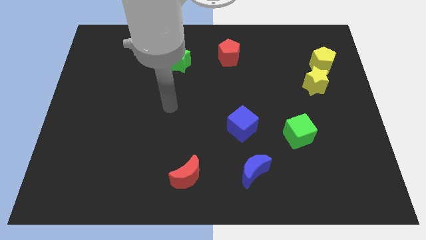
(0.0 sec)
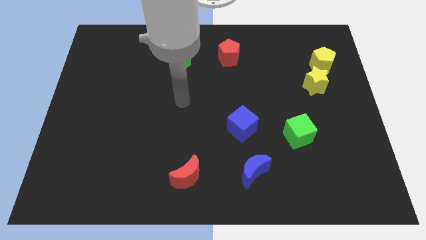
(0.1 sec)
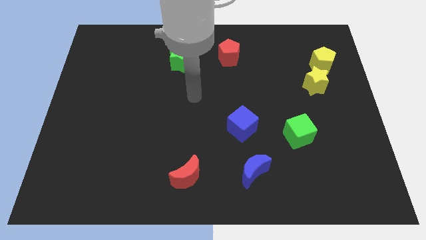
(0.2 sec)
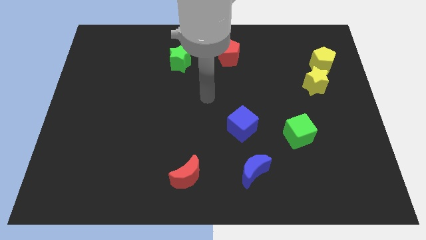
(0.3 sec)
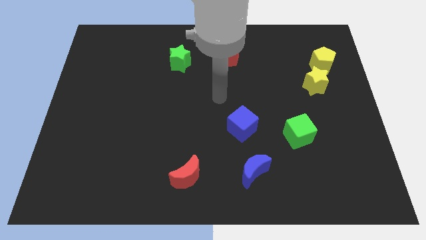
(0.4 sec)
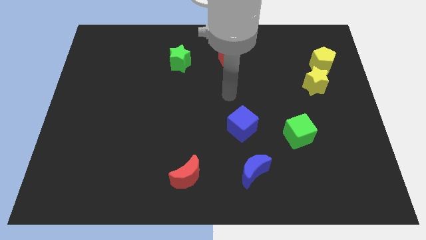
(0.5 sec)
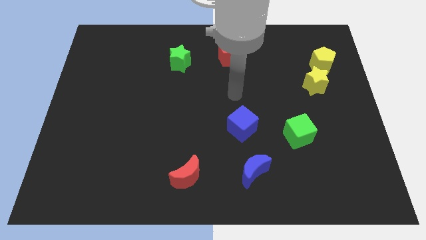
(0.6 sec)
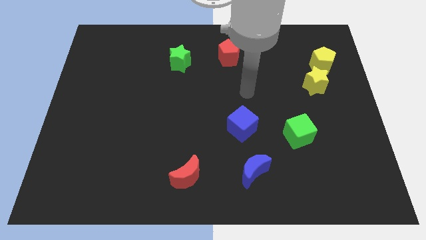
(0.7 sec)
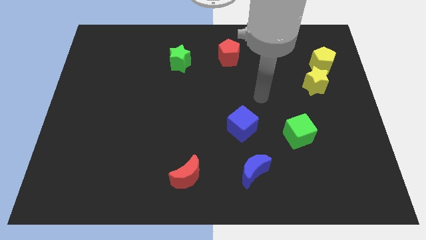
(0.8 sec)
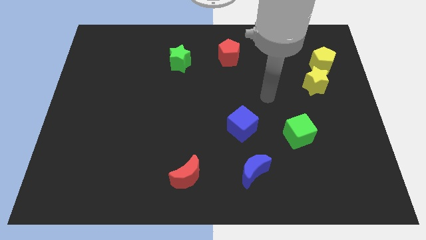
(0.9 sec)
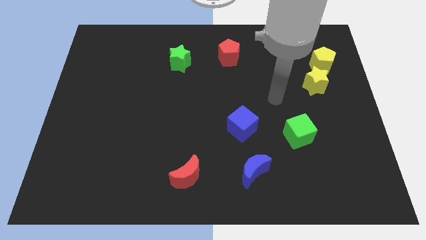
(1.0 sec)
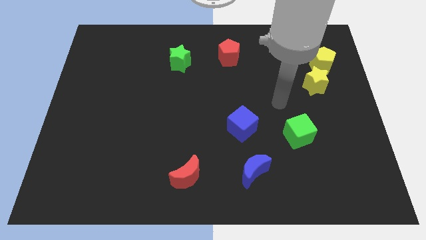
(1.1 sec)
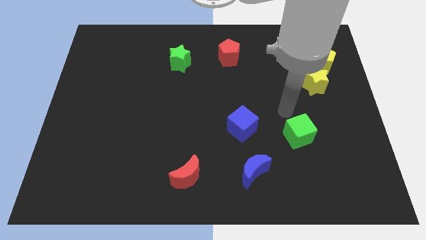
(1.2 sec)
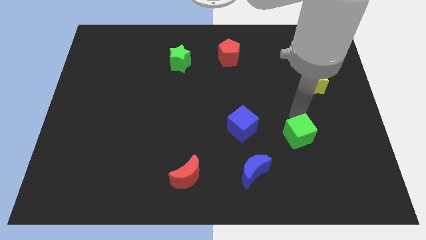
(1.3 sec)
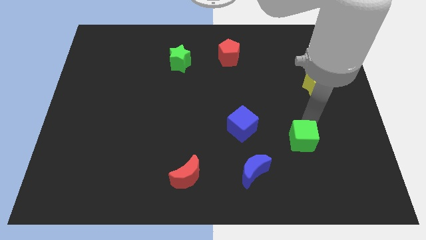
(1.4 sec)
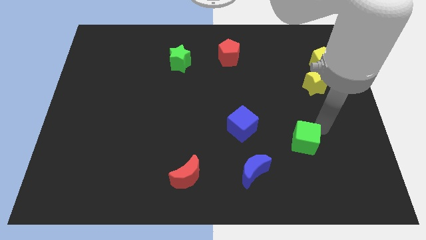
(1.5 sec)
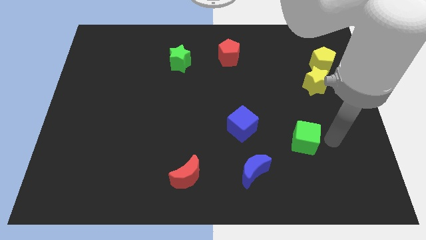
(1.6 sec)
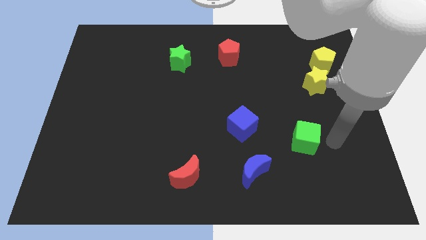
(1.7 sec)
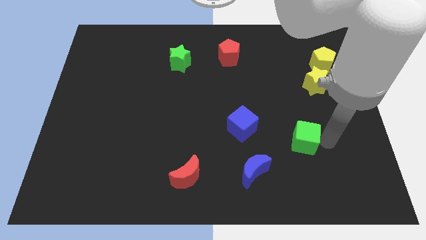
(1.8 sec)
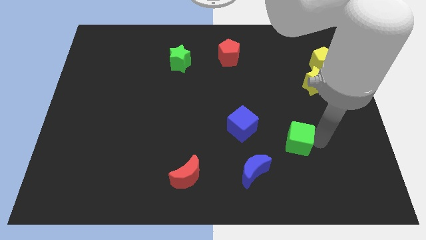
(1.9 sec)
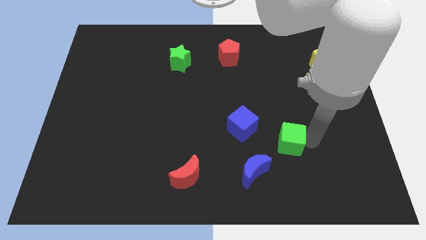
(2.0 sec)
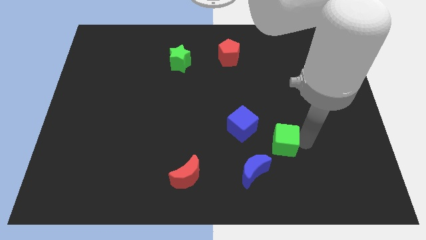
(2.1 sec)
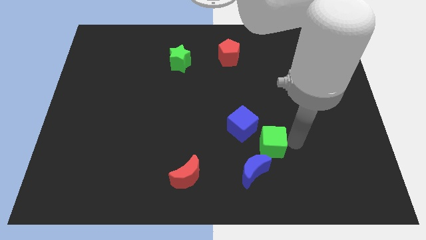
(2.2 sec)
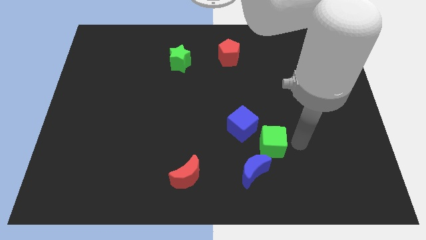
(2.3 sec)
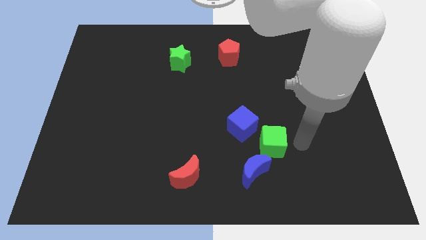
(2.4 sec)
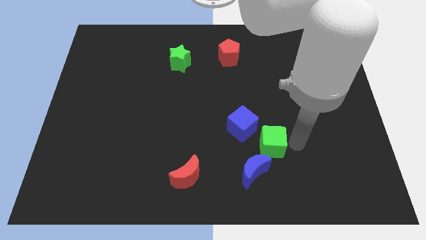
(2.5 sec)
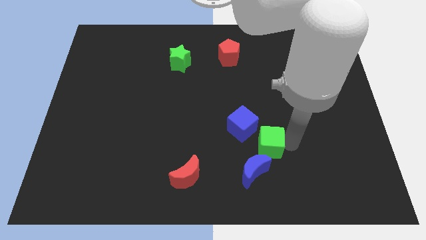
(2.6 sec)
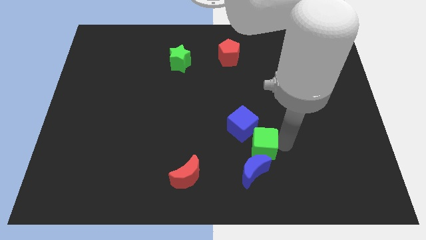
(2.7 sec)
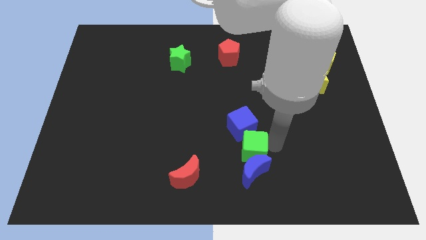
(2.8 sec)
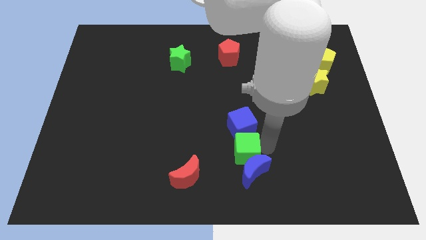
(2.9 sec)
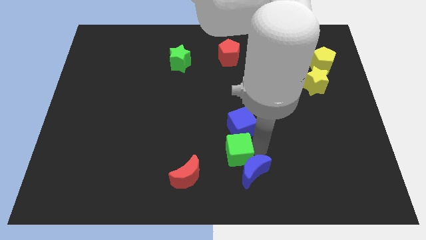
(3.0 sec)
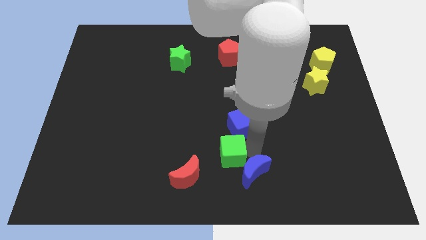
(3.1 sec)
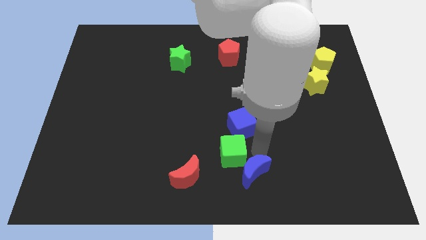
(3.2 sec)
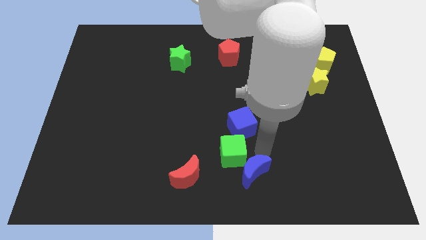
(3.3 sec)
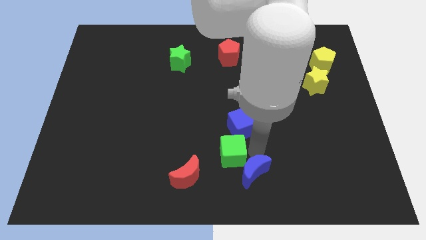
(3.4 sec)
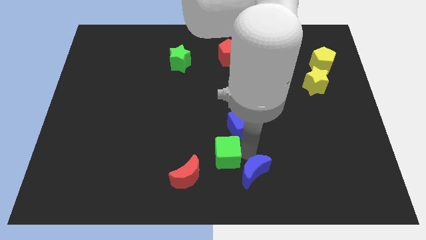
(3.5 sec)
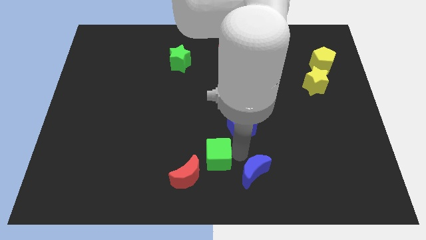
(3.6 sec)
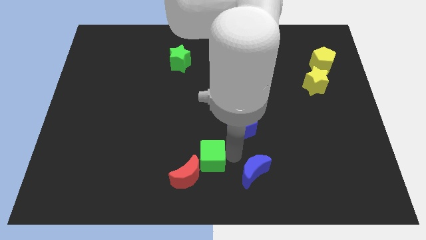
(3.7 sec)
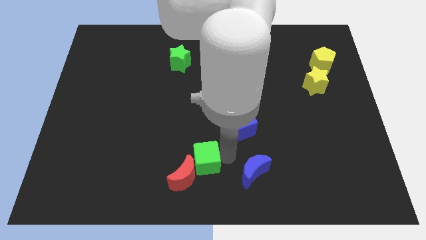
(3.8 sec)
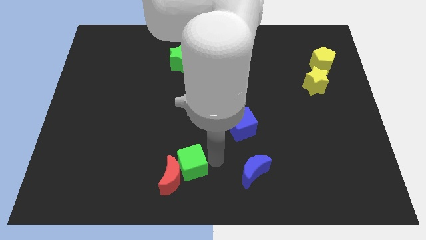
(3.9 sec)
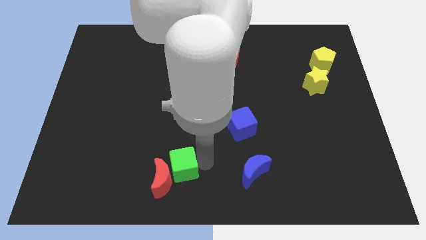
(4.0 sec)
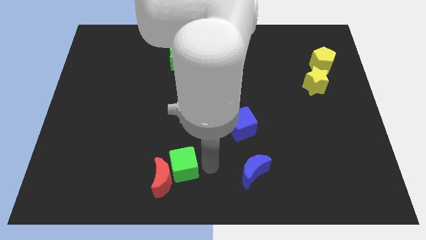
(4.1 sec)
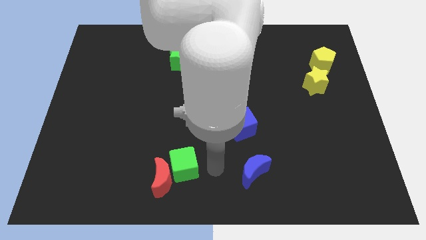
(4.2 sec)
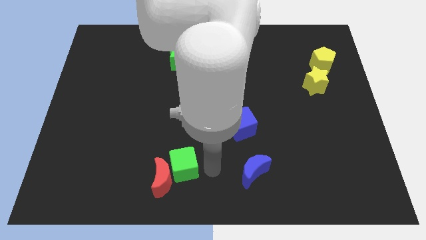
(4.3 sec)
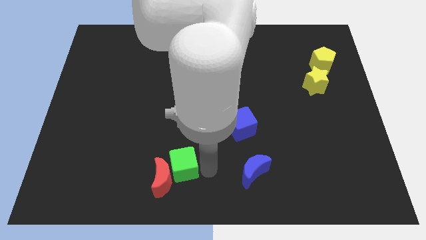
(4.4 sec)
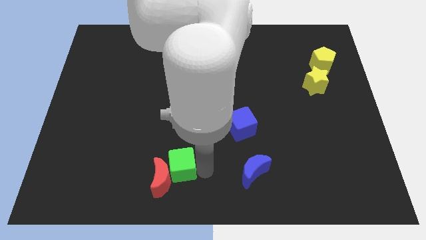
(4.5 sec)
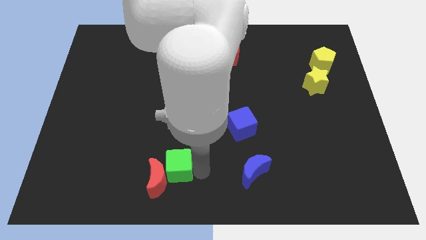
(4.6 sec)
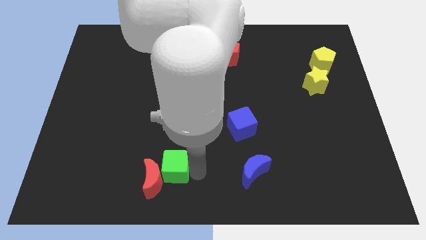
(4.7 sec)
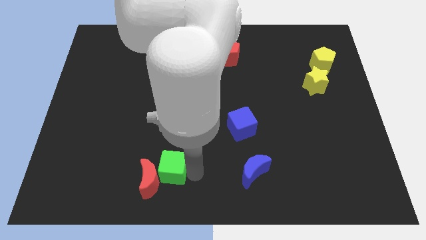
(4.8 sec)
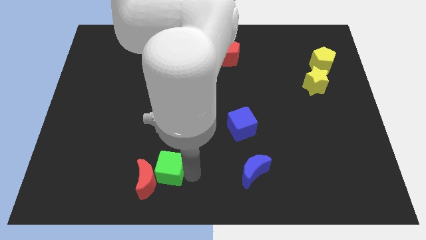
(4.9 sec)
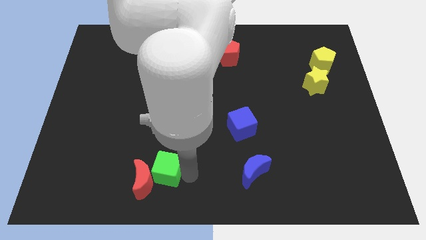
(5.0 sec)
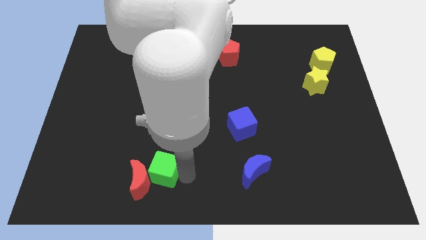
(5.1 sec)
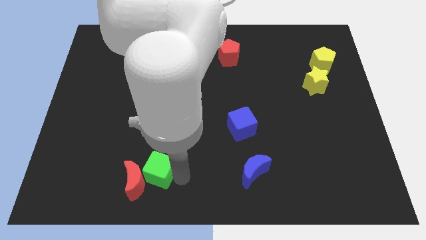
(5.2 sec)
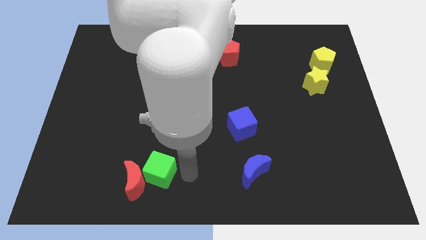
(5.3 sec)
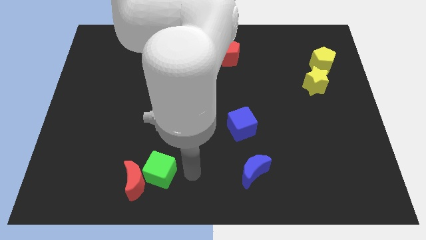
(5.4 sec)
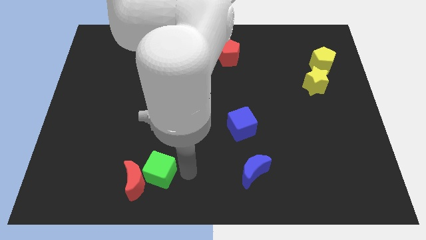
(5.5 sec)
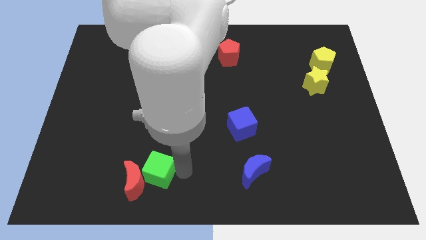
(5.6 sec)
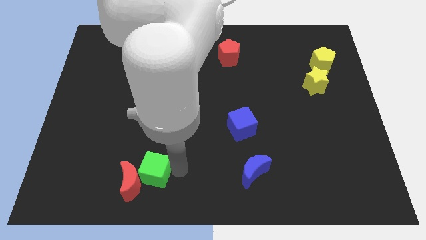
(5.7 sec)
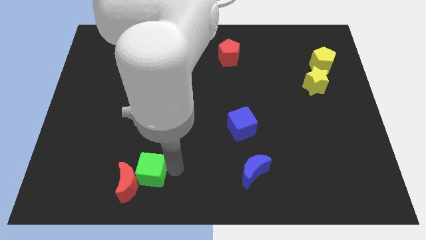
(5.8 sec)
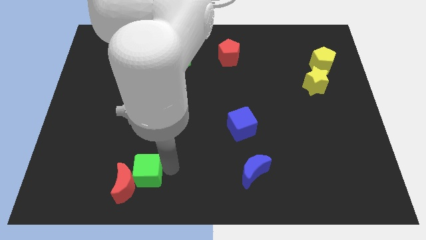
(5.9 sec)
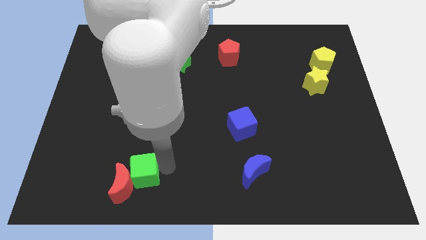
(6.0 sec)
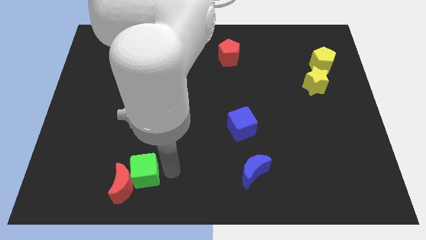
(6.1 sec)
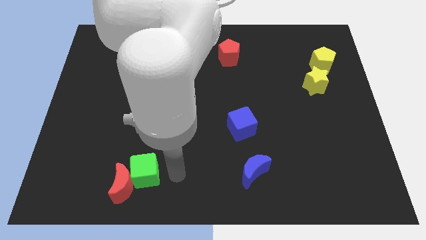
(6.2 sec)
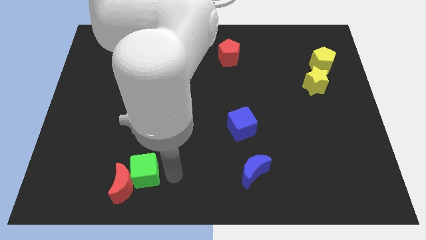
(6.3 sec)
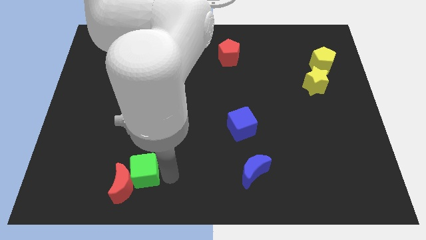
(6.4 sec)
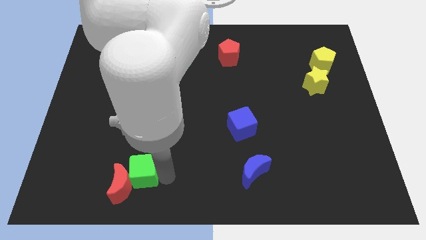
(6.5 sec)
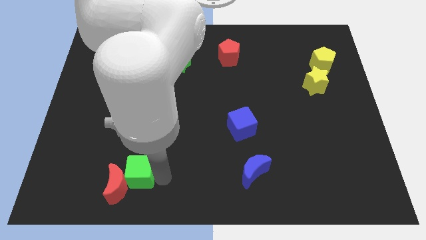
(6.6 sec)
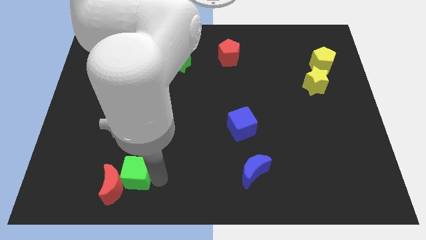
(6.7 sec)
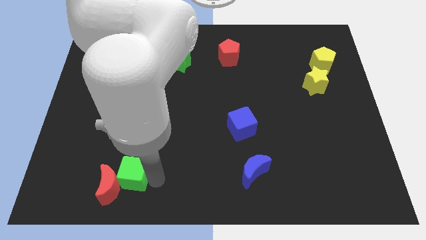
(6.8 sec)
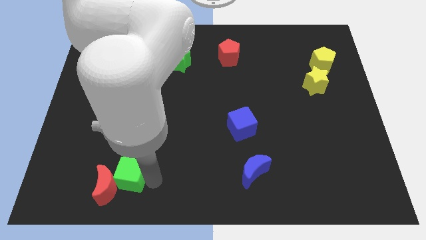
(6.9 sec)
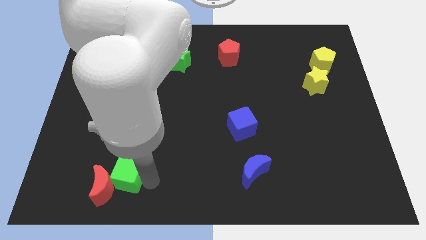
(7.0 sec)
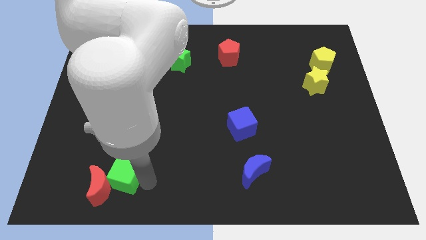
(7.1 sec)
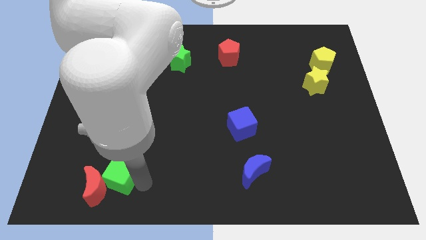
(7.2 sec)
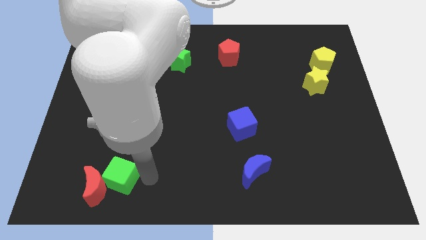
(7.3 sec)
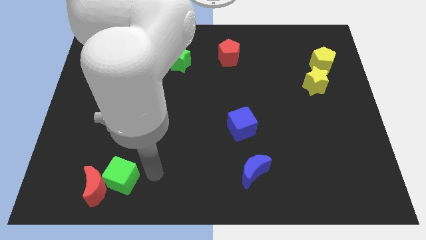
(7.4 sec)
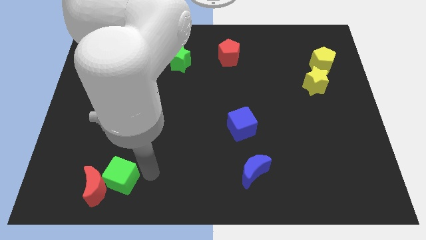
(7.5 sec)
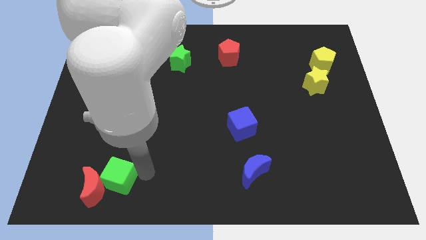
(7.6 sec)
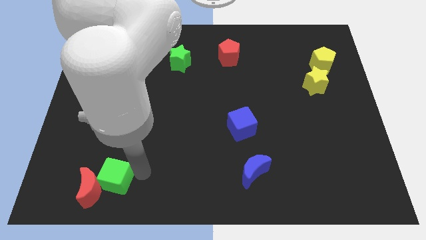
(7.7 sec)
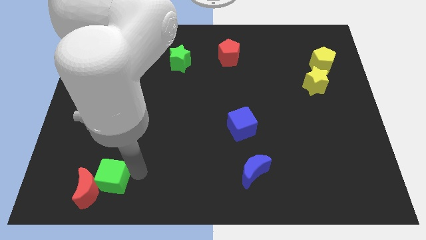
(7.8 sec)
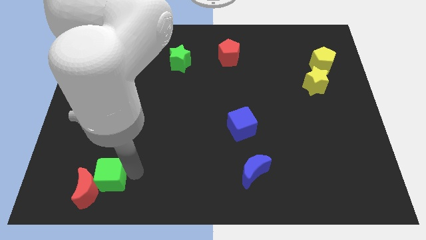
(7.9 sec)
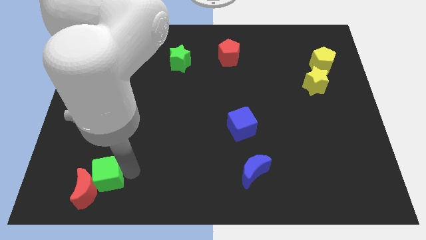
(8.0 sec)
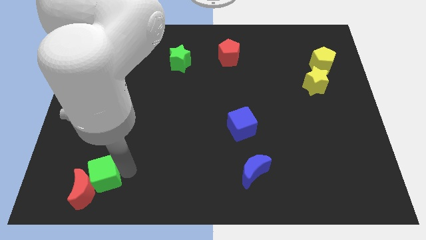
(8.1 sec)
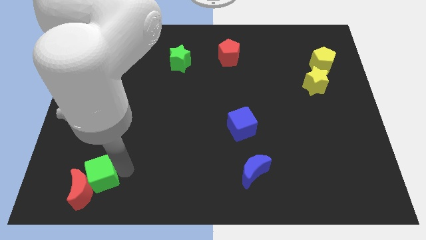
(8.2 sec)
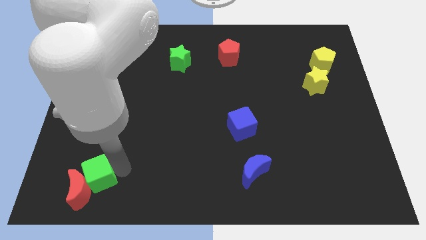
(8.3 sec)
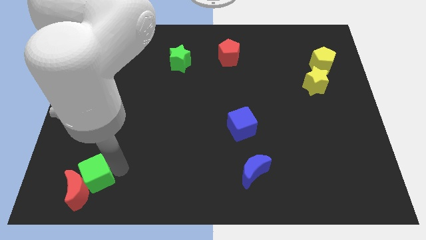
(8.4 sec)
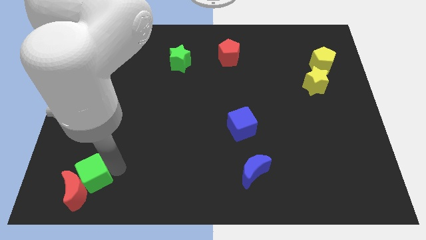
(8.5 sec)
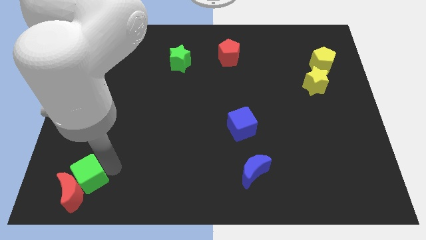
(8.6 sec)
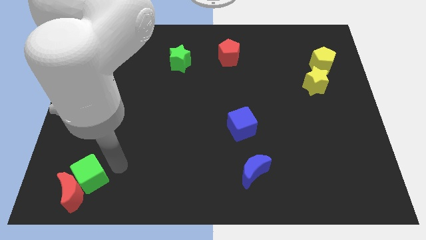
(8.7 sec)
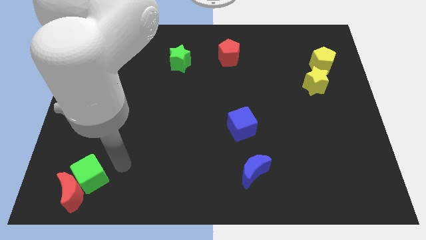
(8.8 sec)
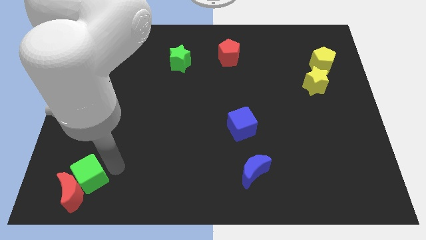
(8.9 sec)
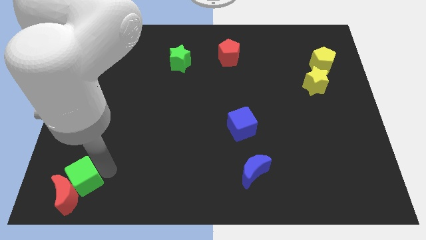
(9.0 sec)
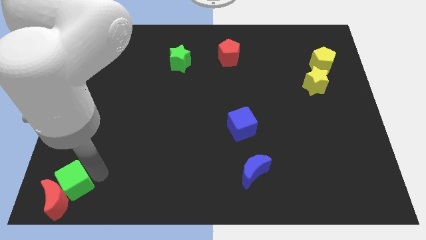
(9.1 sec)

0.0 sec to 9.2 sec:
push the green cube to the bottom left of the board
